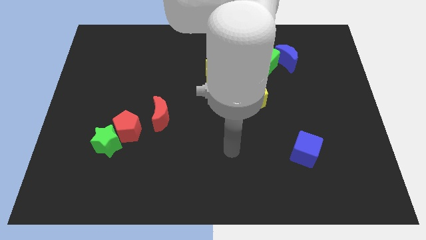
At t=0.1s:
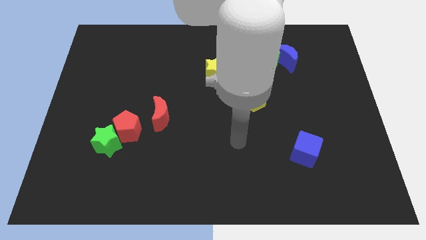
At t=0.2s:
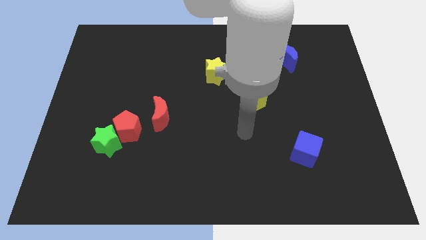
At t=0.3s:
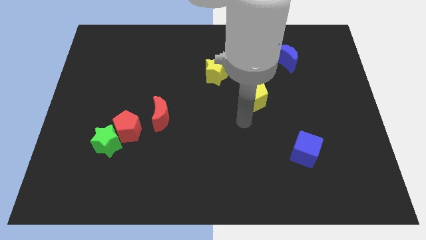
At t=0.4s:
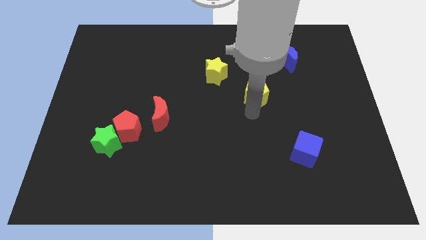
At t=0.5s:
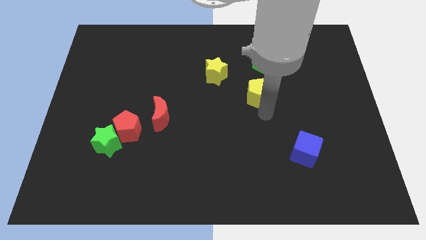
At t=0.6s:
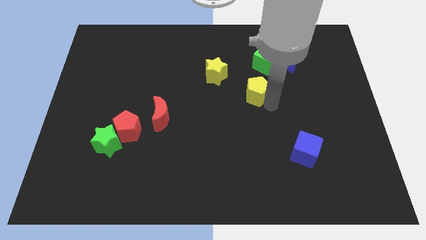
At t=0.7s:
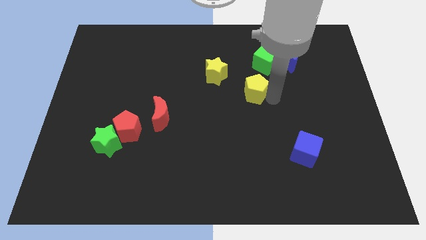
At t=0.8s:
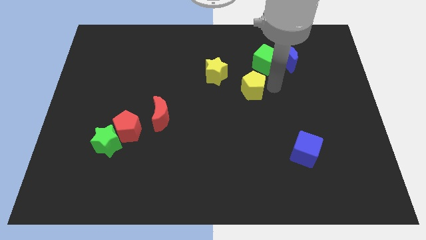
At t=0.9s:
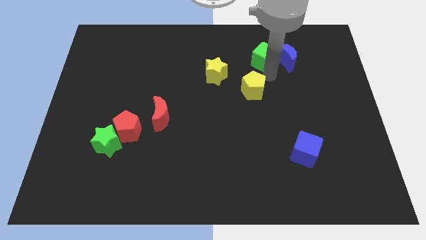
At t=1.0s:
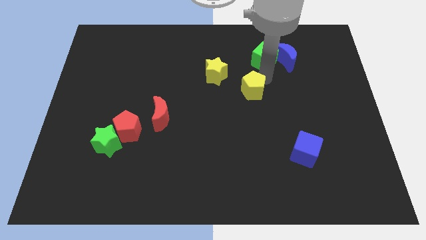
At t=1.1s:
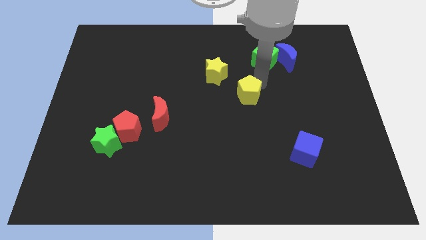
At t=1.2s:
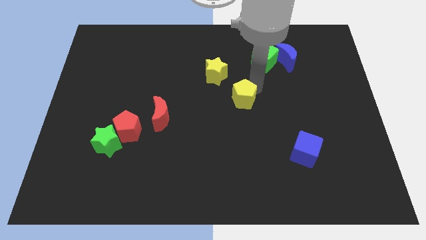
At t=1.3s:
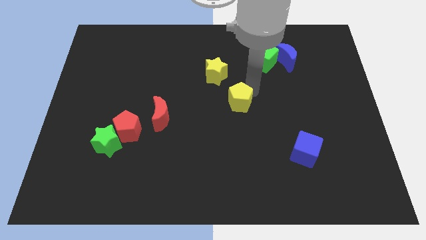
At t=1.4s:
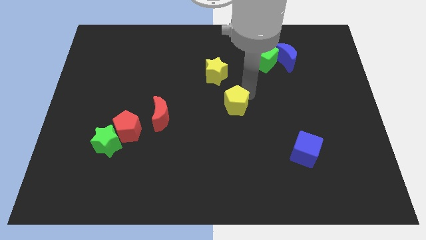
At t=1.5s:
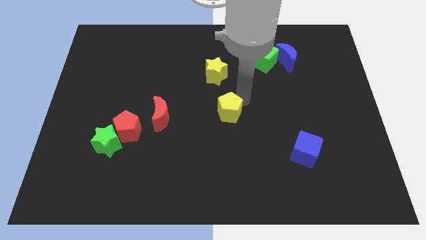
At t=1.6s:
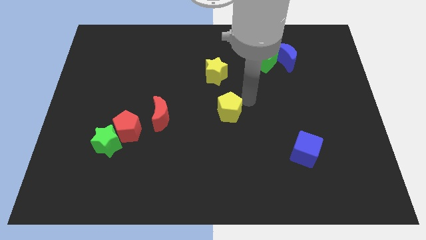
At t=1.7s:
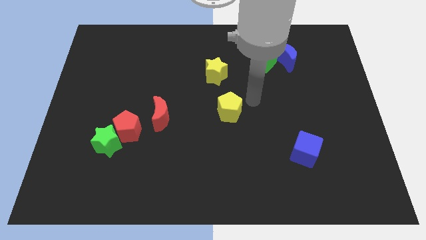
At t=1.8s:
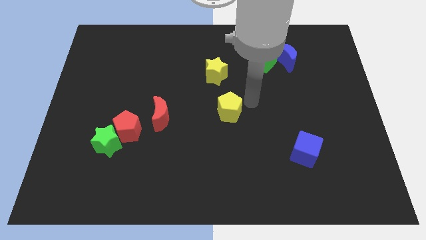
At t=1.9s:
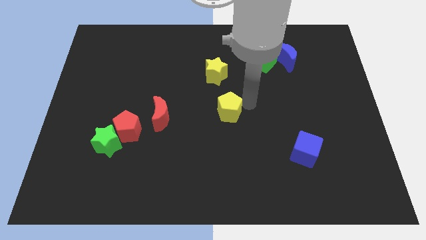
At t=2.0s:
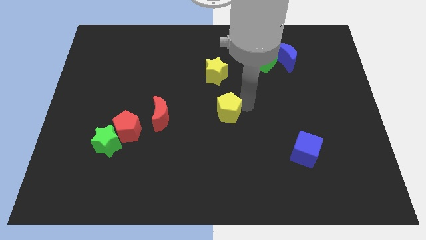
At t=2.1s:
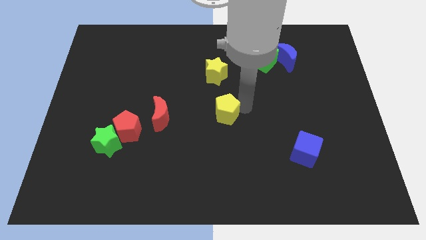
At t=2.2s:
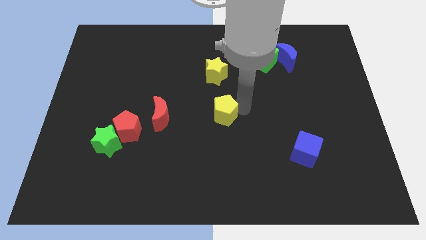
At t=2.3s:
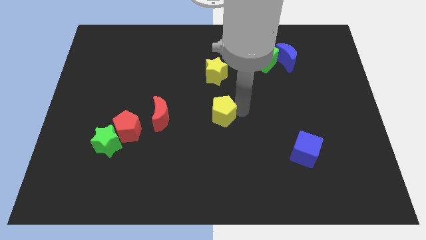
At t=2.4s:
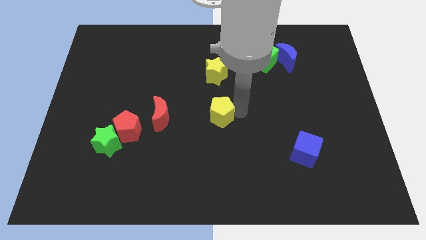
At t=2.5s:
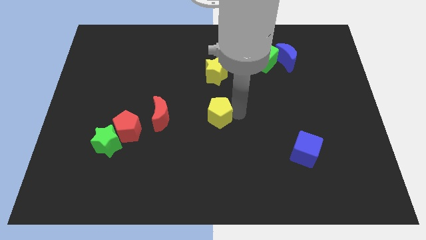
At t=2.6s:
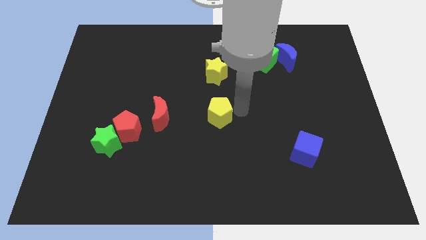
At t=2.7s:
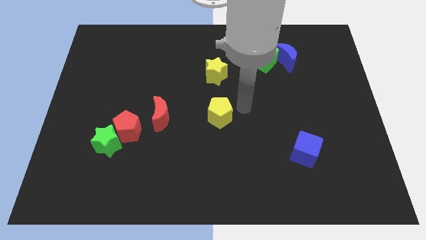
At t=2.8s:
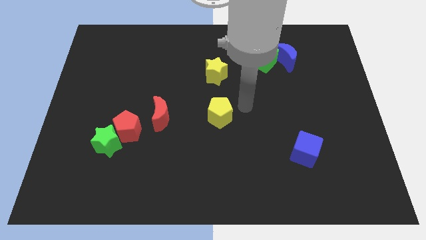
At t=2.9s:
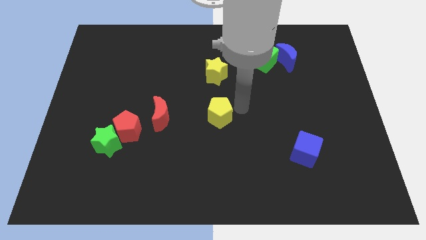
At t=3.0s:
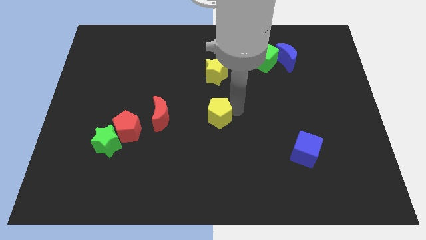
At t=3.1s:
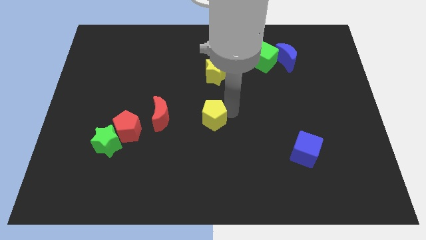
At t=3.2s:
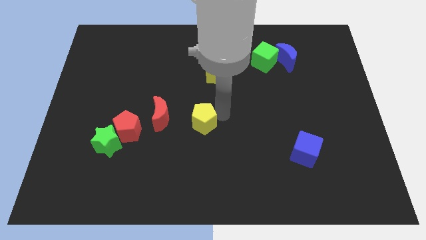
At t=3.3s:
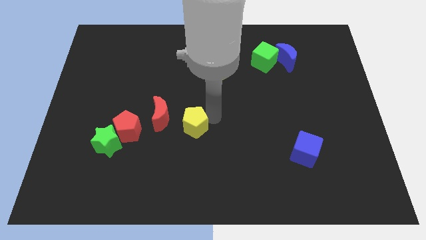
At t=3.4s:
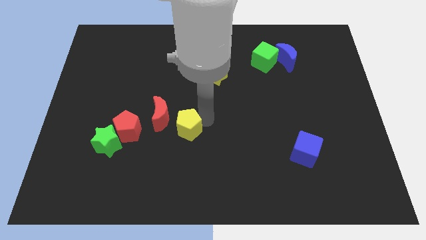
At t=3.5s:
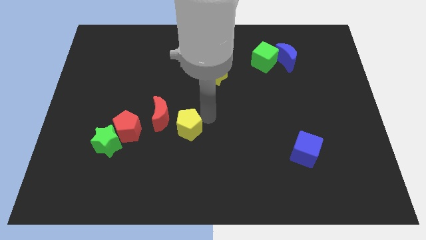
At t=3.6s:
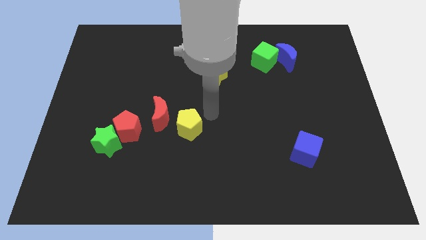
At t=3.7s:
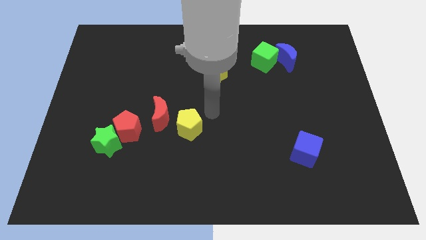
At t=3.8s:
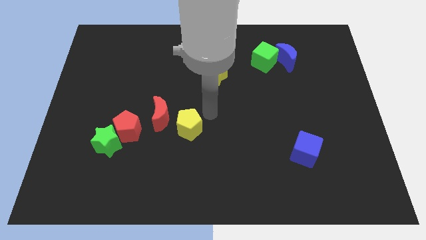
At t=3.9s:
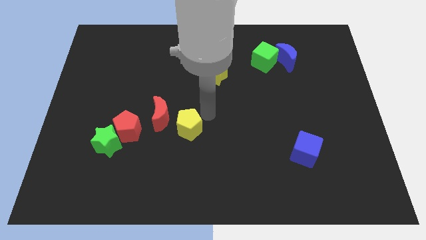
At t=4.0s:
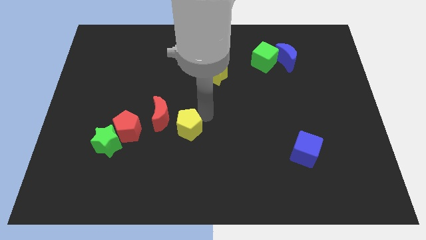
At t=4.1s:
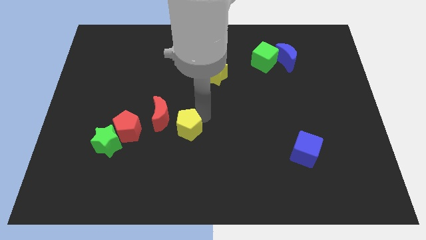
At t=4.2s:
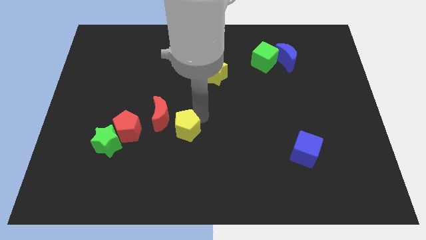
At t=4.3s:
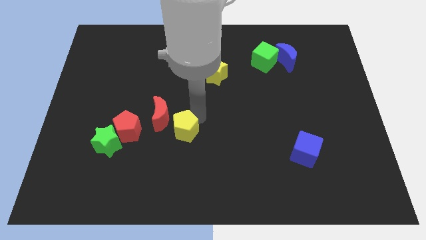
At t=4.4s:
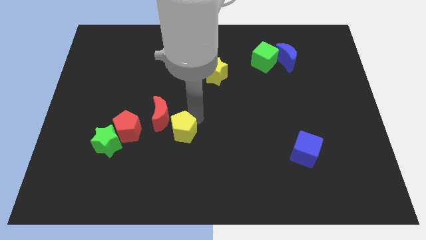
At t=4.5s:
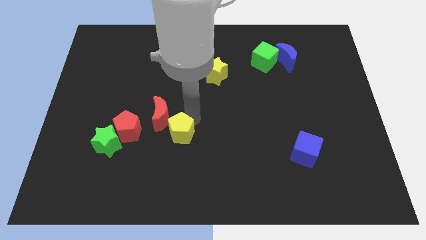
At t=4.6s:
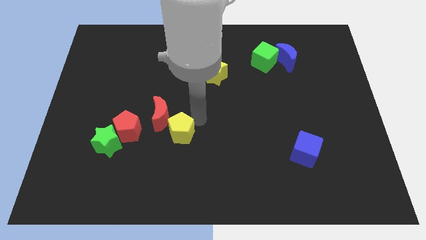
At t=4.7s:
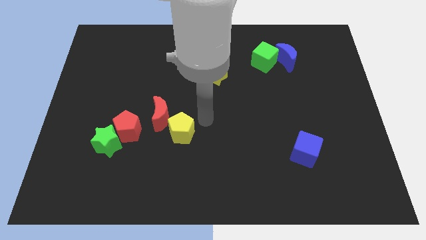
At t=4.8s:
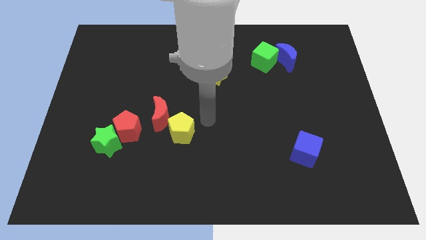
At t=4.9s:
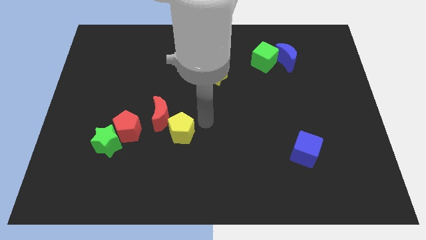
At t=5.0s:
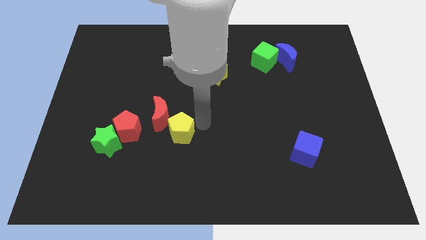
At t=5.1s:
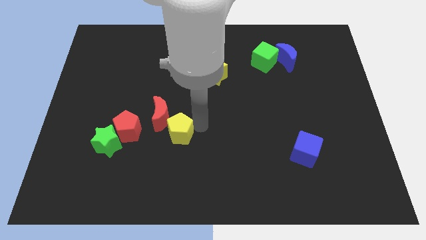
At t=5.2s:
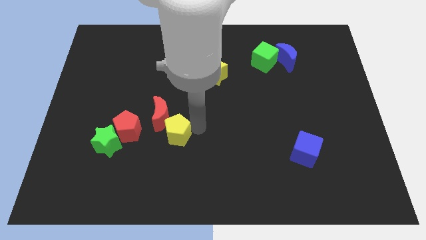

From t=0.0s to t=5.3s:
put the yellow pentagon right of the green star

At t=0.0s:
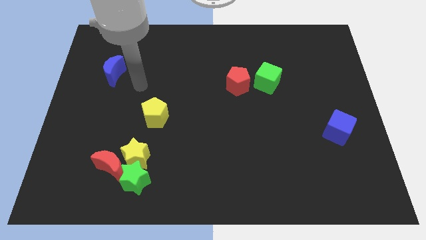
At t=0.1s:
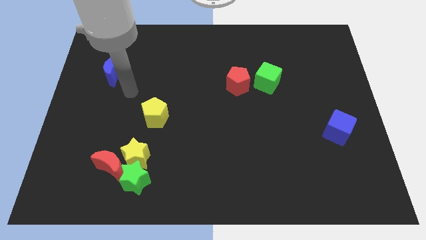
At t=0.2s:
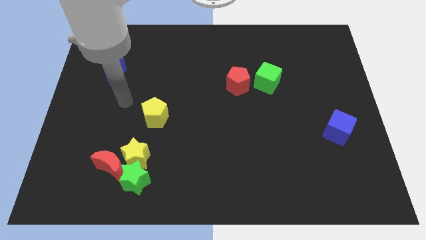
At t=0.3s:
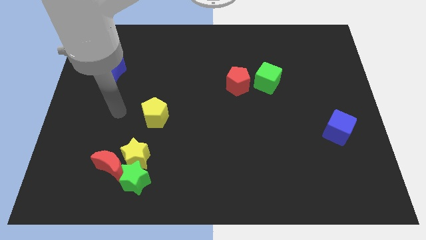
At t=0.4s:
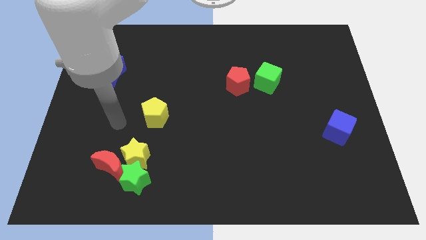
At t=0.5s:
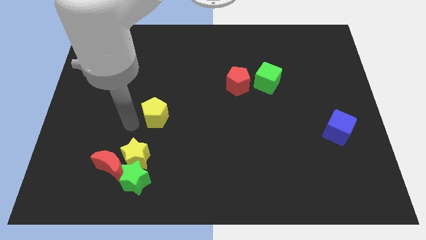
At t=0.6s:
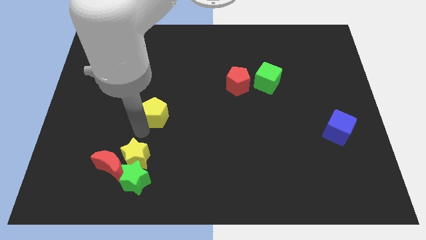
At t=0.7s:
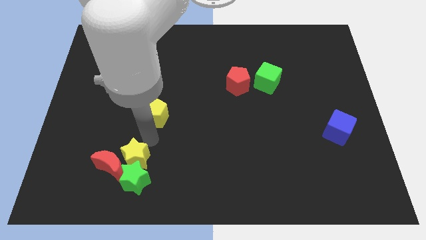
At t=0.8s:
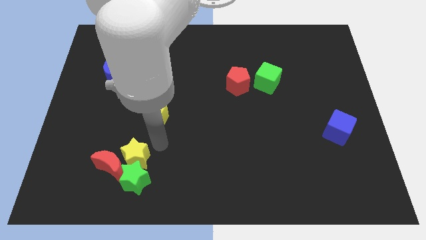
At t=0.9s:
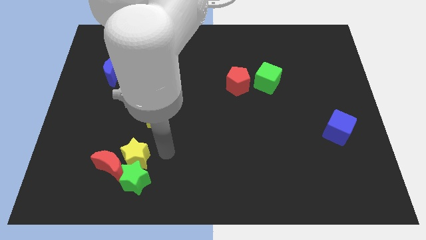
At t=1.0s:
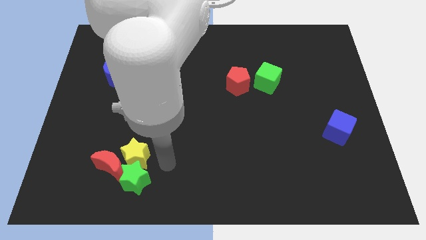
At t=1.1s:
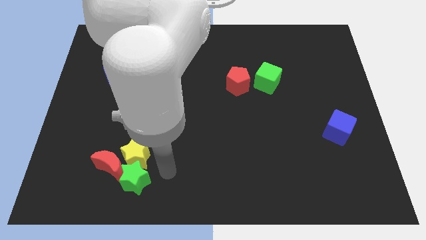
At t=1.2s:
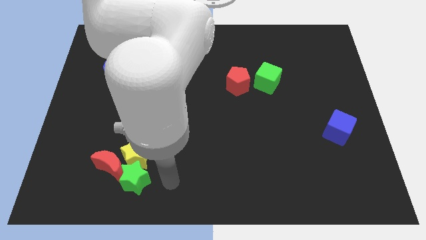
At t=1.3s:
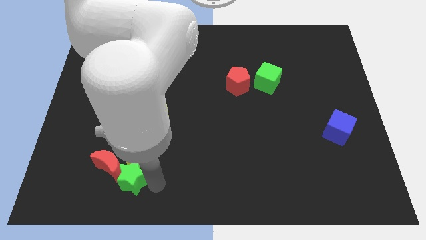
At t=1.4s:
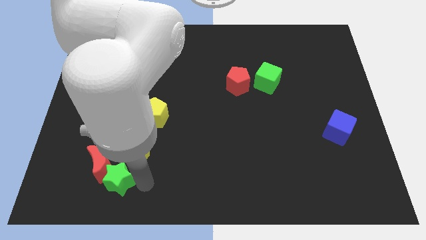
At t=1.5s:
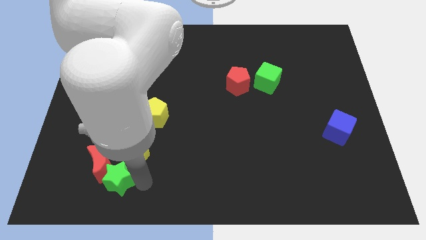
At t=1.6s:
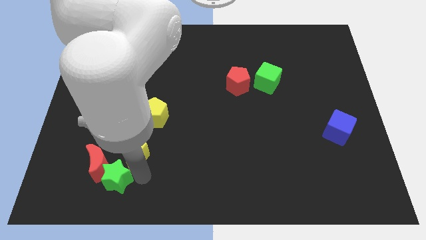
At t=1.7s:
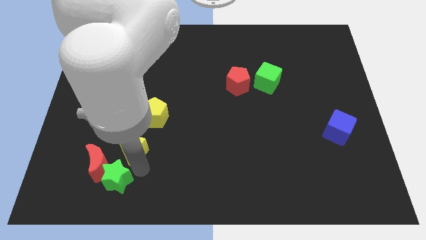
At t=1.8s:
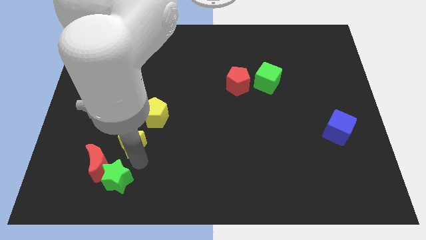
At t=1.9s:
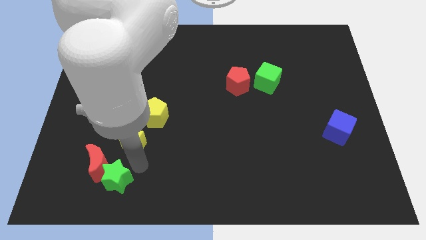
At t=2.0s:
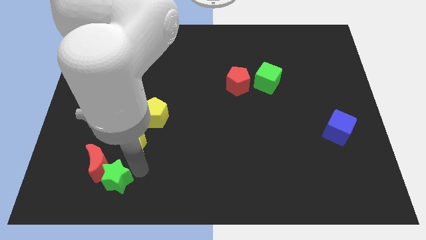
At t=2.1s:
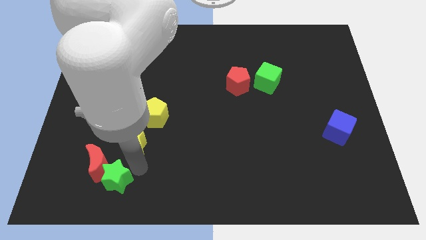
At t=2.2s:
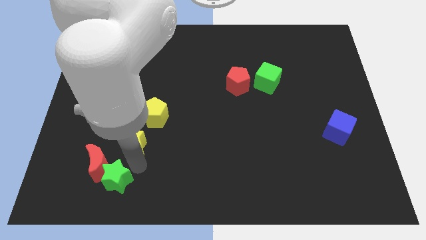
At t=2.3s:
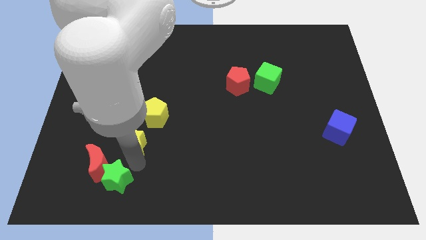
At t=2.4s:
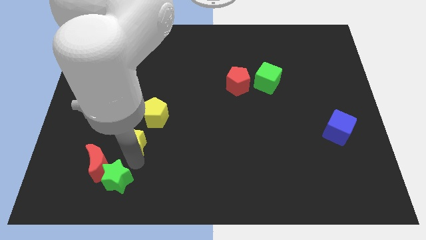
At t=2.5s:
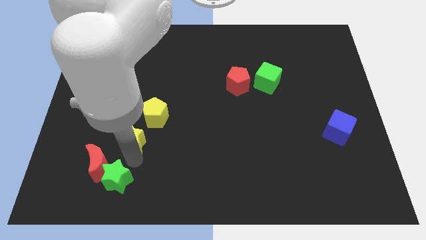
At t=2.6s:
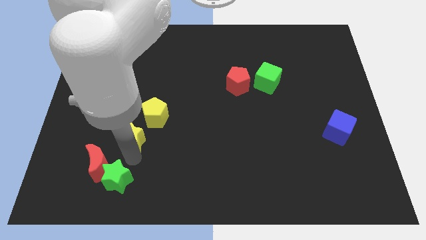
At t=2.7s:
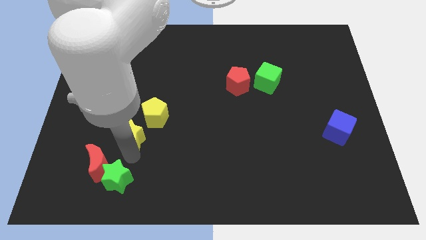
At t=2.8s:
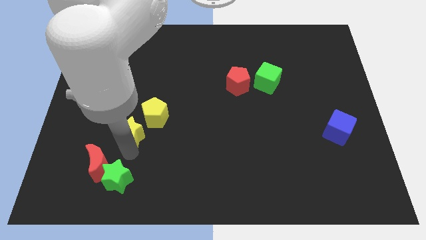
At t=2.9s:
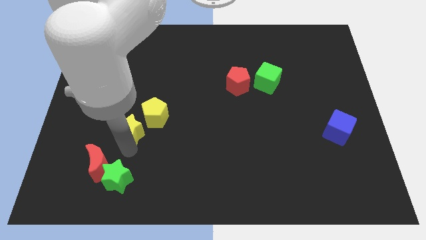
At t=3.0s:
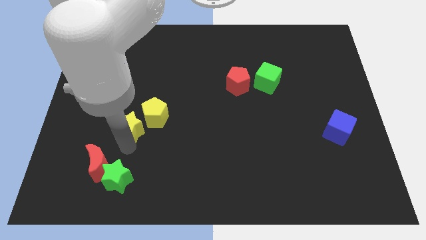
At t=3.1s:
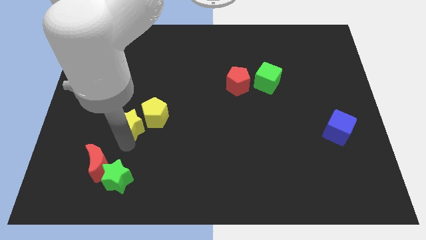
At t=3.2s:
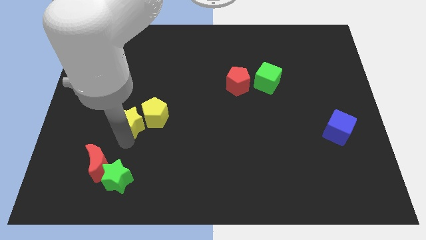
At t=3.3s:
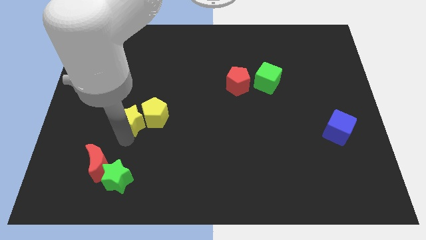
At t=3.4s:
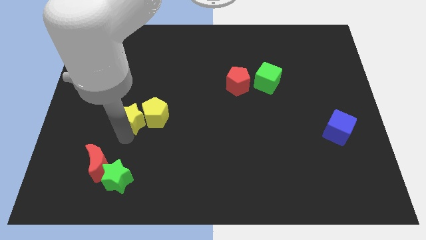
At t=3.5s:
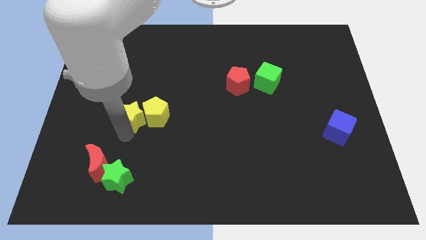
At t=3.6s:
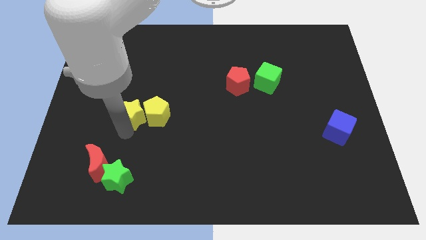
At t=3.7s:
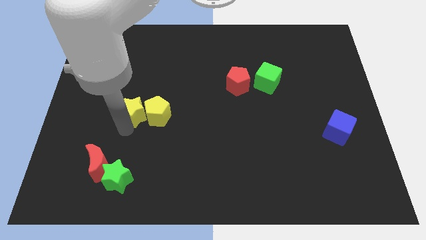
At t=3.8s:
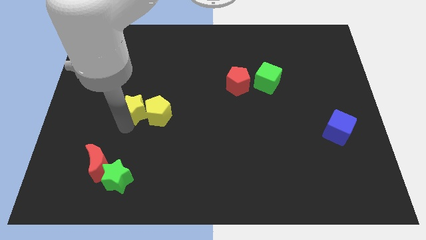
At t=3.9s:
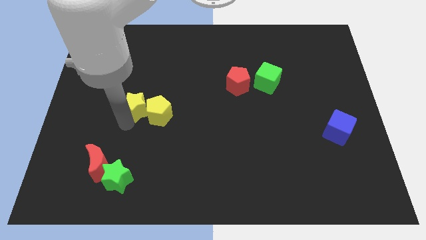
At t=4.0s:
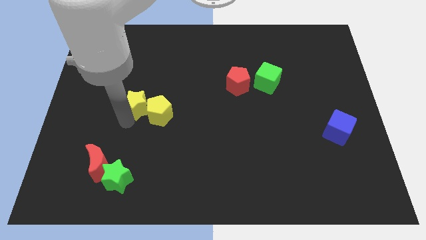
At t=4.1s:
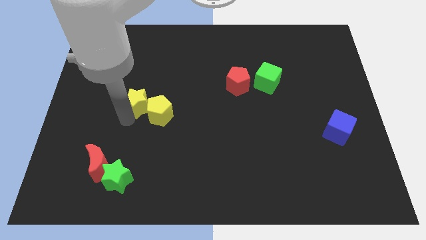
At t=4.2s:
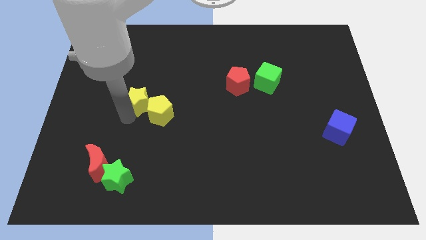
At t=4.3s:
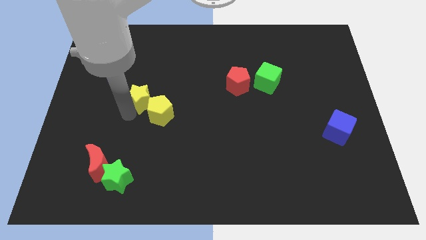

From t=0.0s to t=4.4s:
put the yellow star to the top side of the yellow pentagon
